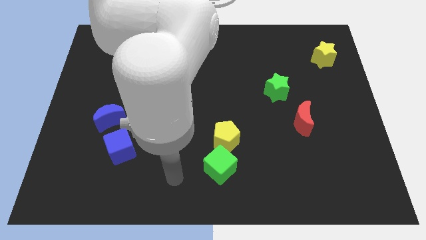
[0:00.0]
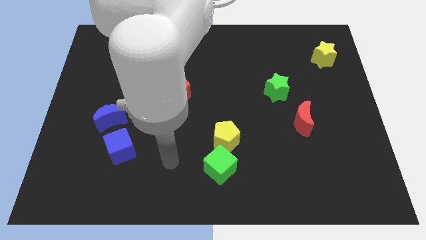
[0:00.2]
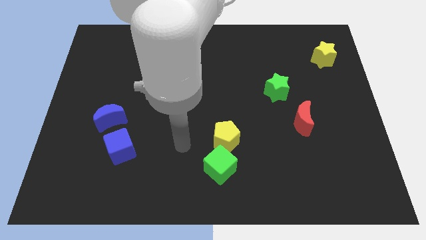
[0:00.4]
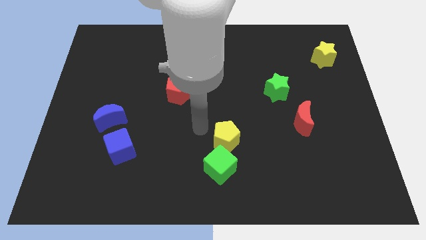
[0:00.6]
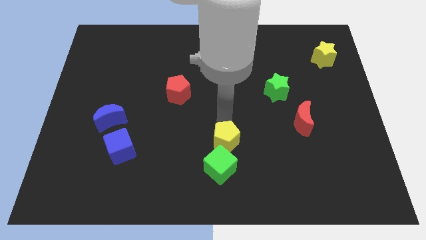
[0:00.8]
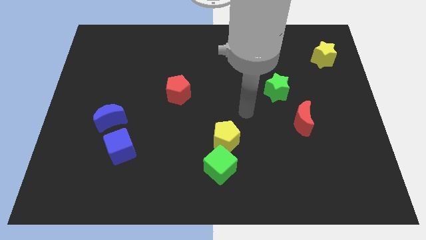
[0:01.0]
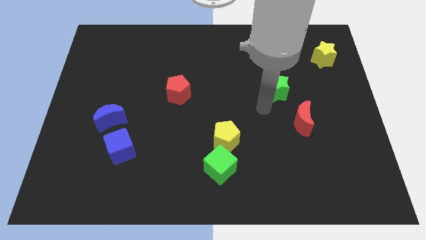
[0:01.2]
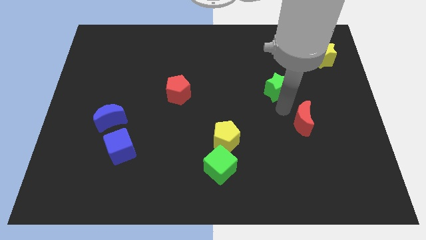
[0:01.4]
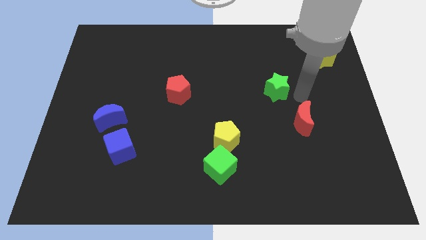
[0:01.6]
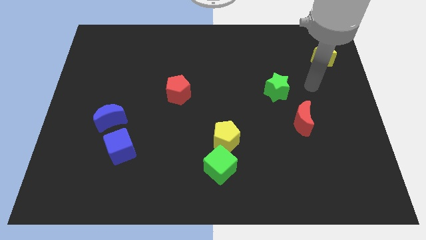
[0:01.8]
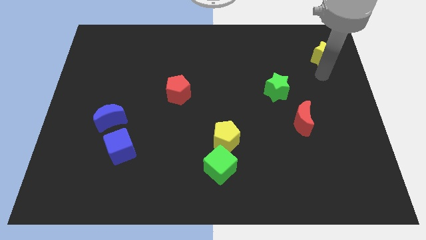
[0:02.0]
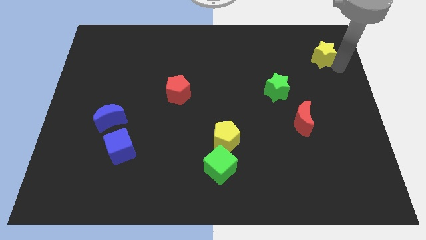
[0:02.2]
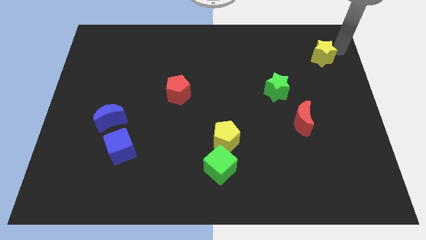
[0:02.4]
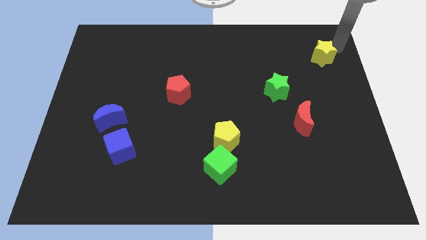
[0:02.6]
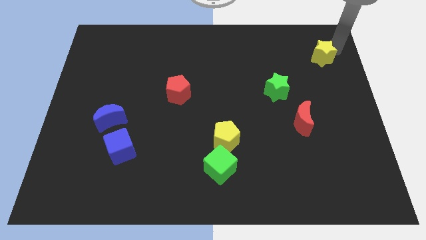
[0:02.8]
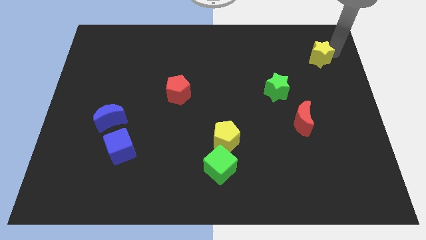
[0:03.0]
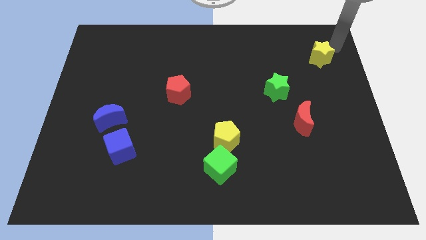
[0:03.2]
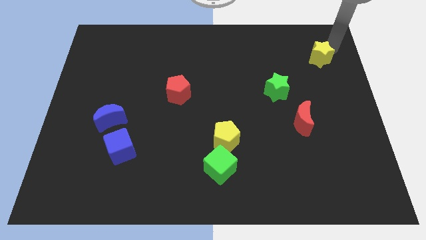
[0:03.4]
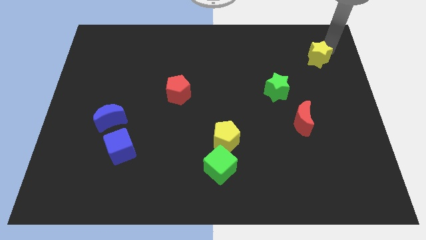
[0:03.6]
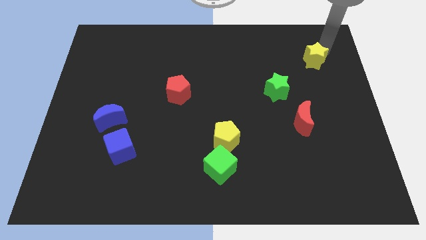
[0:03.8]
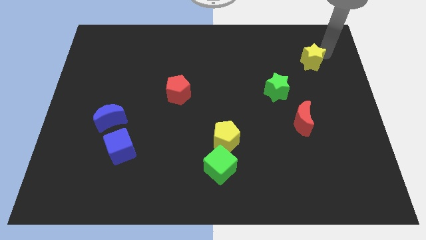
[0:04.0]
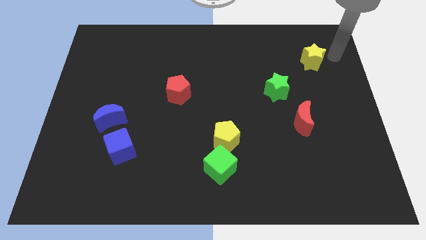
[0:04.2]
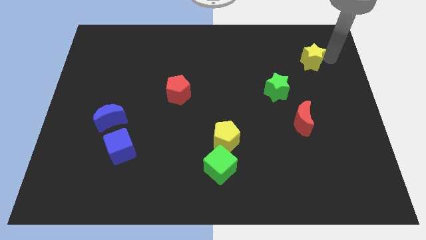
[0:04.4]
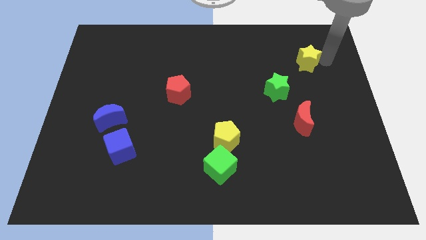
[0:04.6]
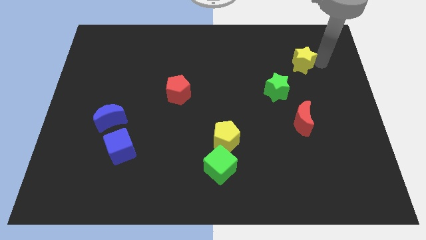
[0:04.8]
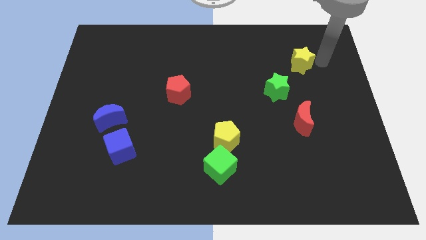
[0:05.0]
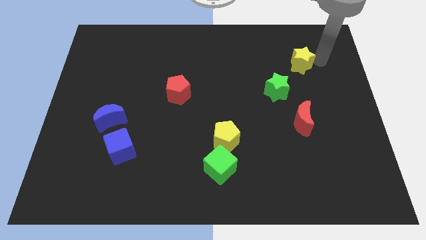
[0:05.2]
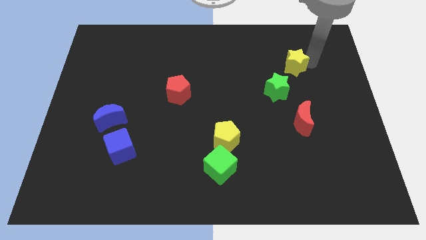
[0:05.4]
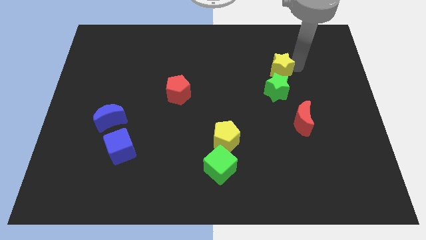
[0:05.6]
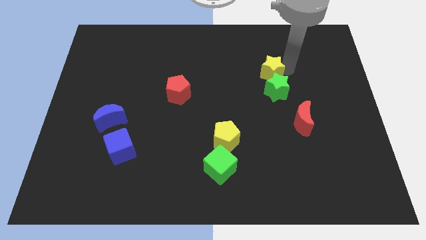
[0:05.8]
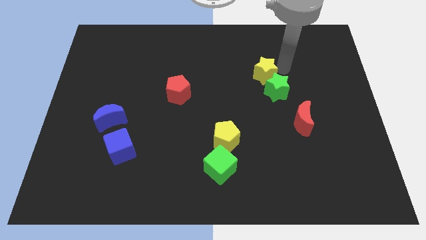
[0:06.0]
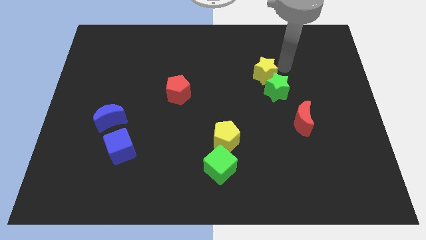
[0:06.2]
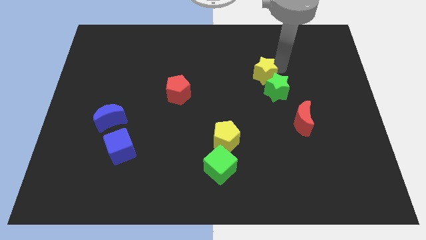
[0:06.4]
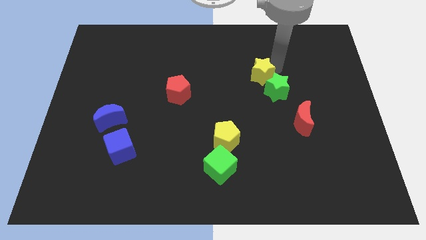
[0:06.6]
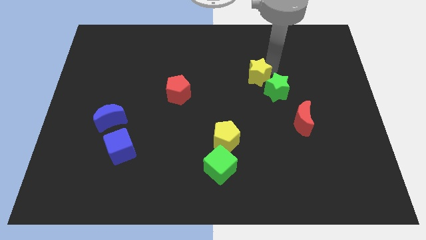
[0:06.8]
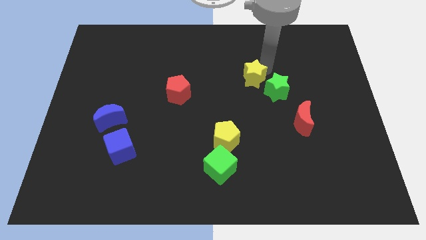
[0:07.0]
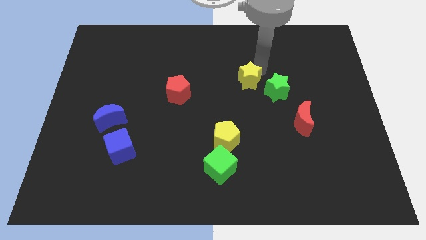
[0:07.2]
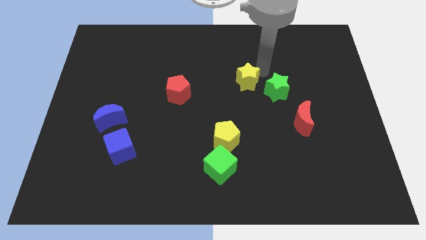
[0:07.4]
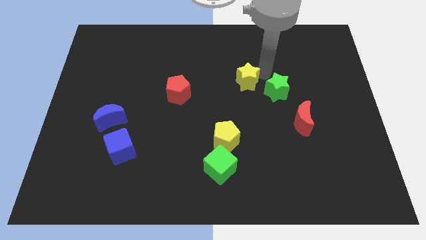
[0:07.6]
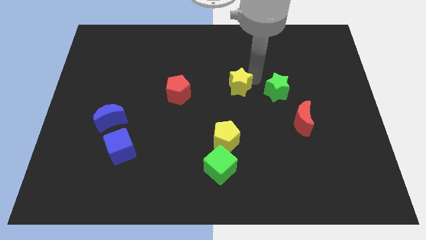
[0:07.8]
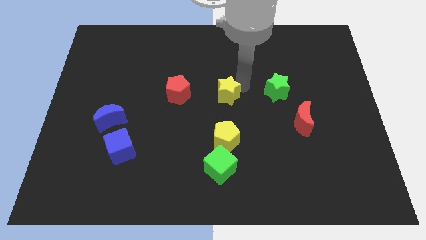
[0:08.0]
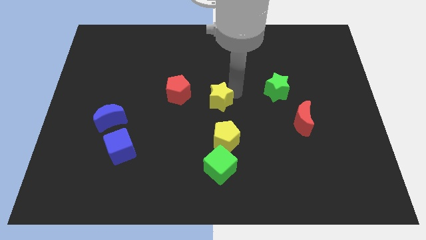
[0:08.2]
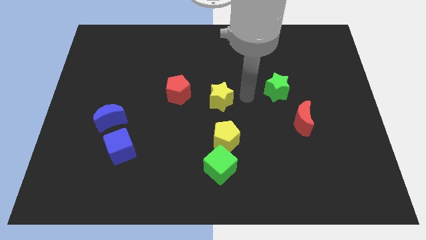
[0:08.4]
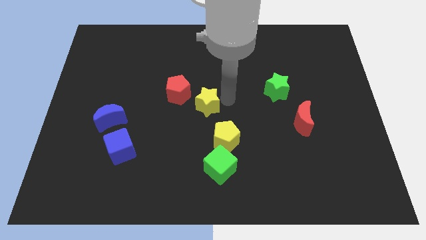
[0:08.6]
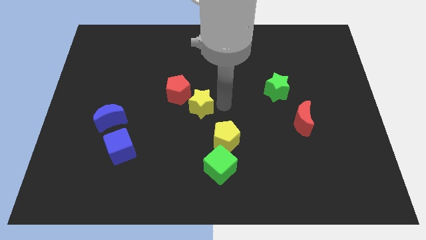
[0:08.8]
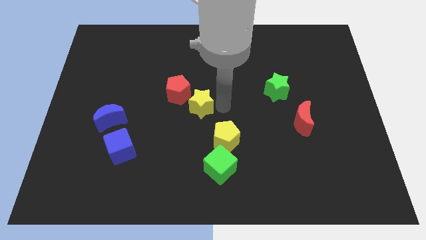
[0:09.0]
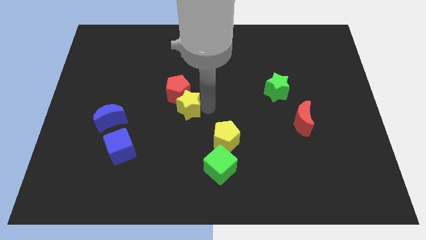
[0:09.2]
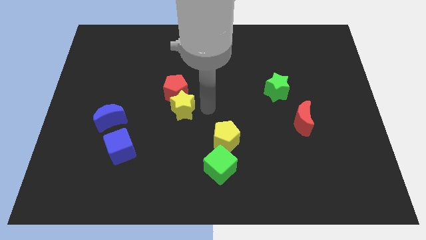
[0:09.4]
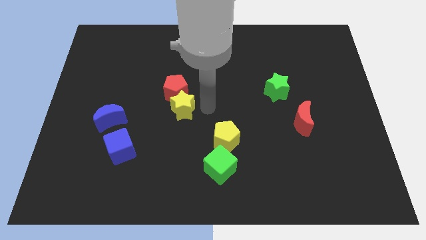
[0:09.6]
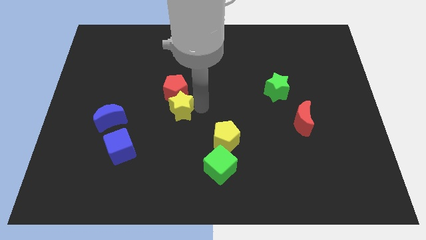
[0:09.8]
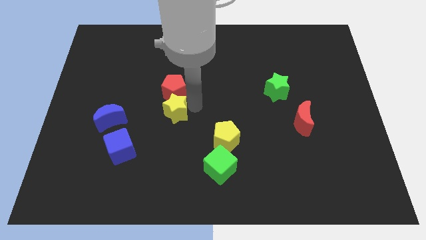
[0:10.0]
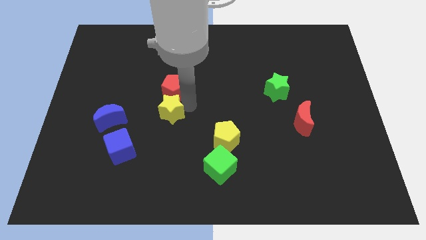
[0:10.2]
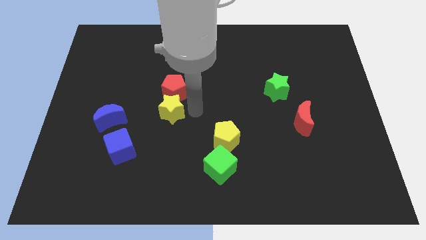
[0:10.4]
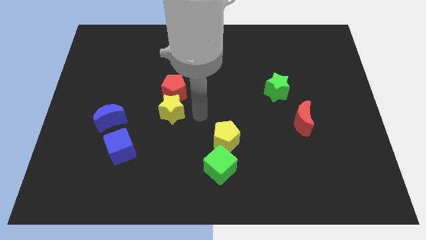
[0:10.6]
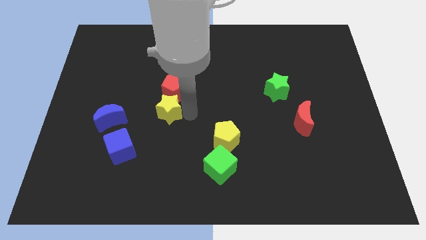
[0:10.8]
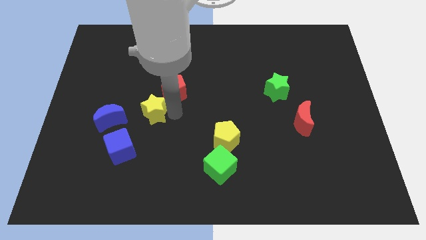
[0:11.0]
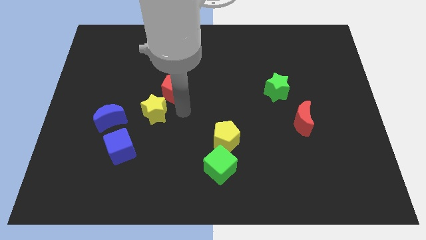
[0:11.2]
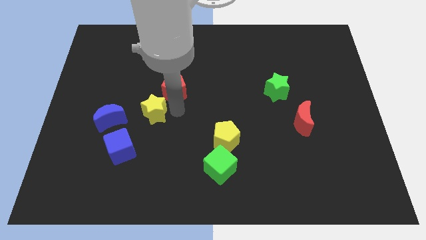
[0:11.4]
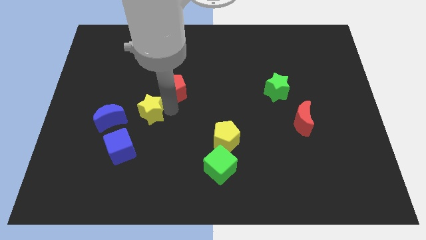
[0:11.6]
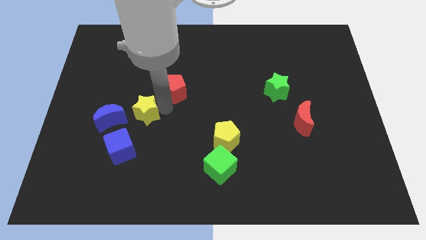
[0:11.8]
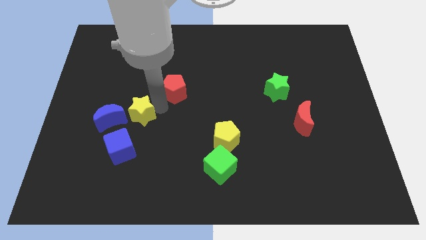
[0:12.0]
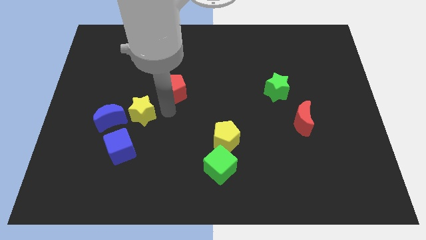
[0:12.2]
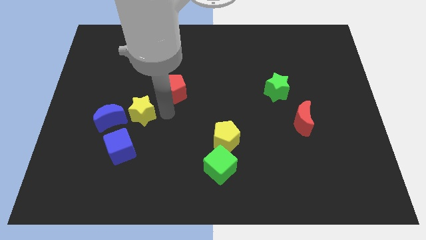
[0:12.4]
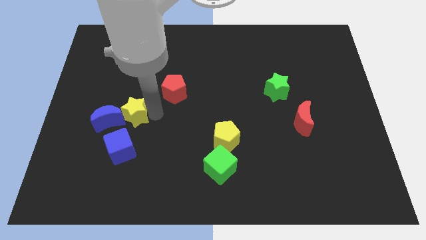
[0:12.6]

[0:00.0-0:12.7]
slide the yellow star towards the blue moon
